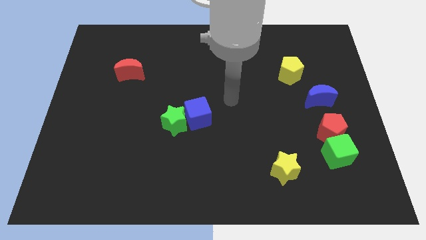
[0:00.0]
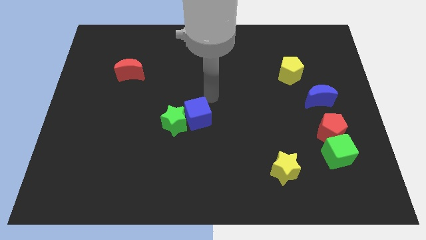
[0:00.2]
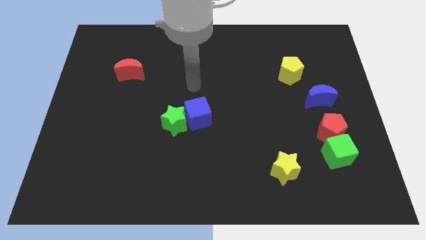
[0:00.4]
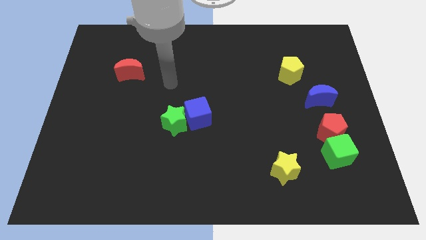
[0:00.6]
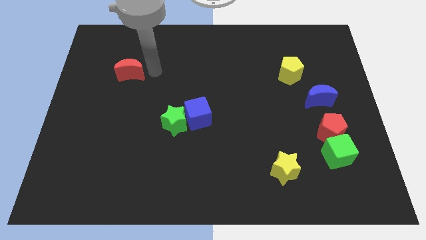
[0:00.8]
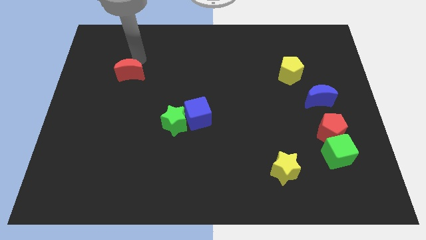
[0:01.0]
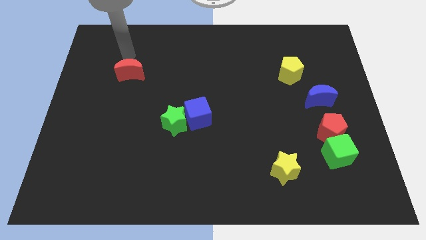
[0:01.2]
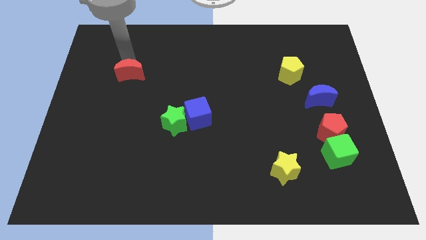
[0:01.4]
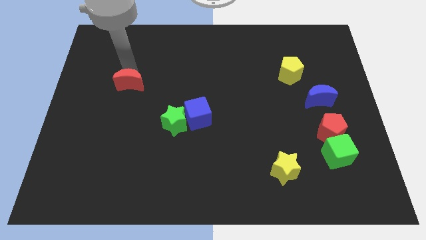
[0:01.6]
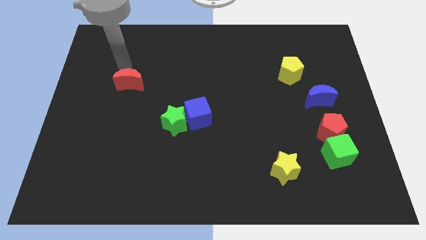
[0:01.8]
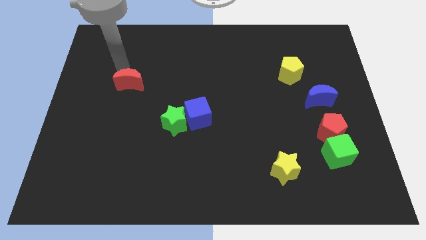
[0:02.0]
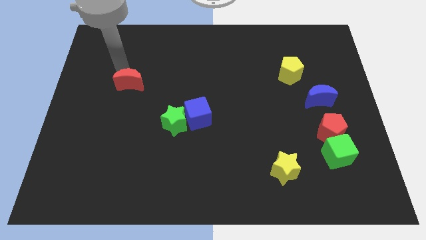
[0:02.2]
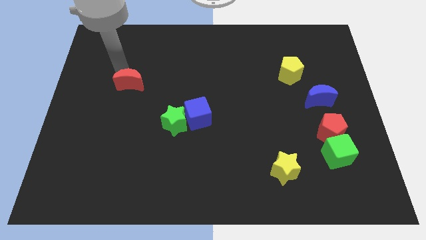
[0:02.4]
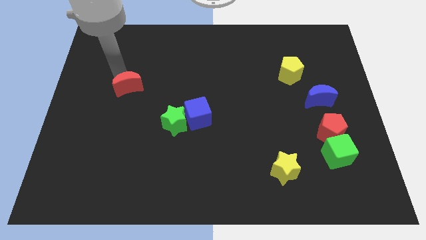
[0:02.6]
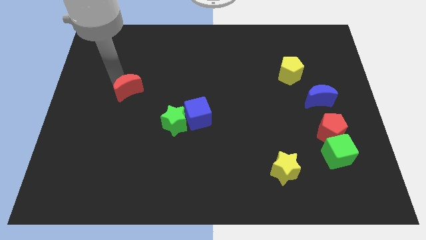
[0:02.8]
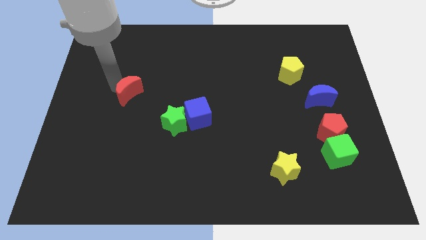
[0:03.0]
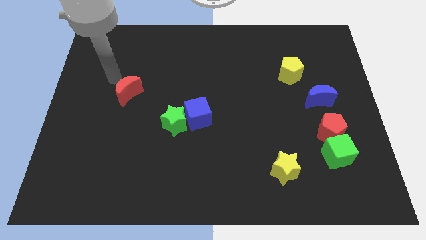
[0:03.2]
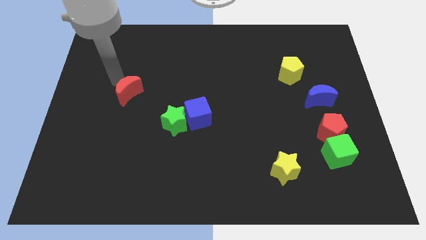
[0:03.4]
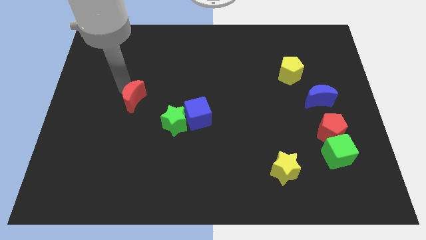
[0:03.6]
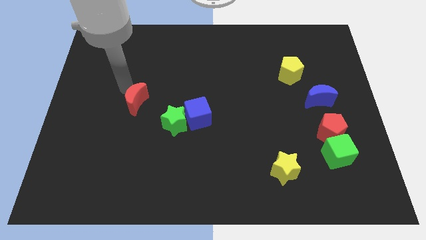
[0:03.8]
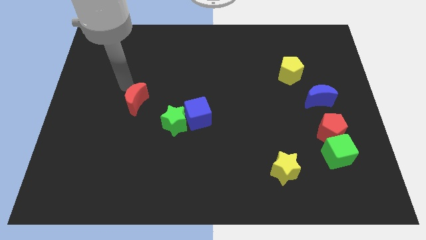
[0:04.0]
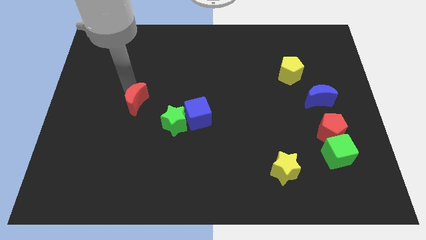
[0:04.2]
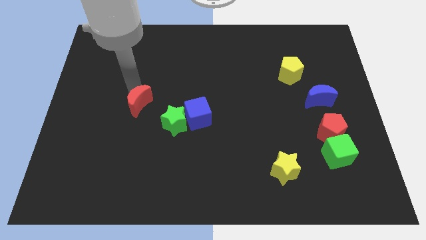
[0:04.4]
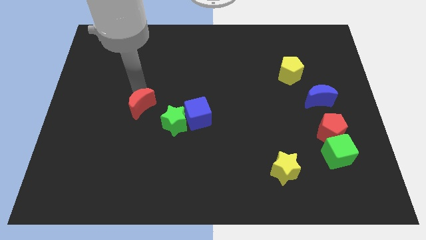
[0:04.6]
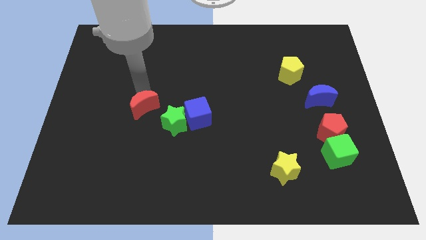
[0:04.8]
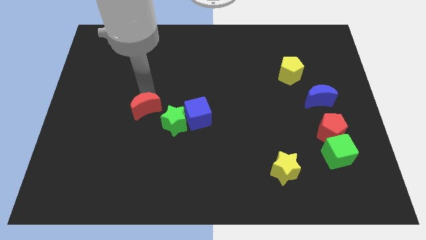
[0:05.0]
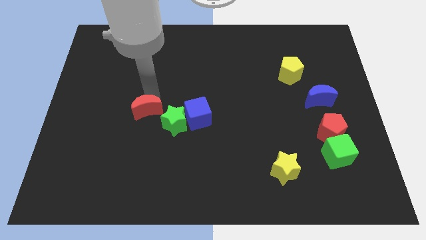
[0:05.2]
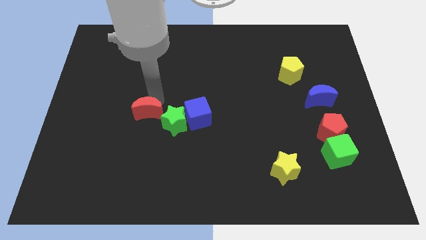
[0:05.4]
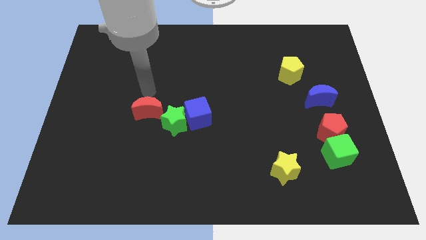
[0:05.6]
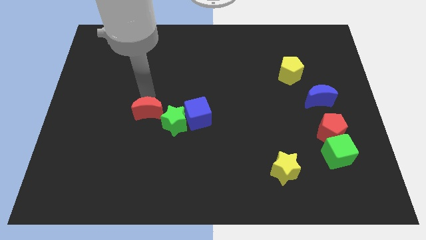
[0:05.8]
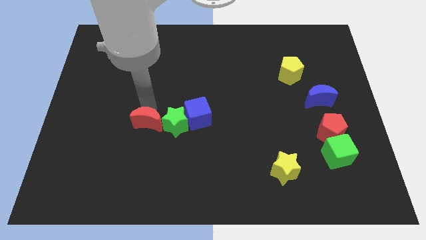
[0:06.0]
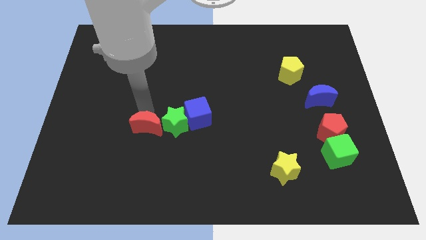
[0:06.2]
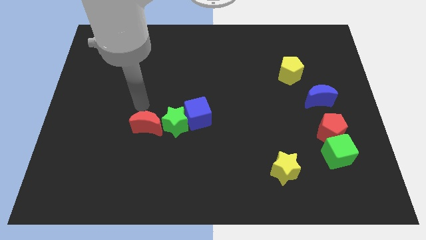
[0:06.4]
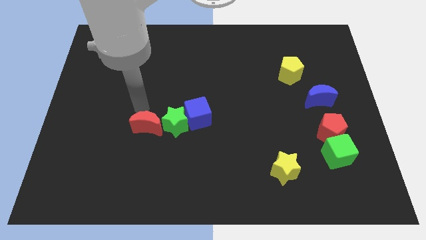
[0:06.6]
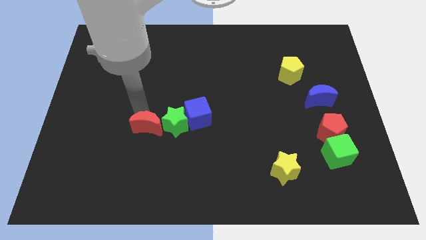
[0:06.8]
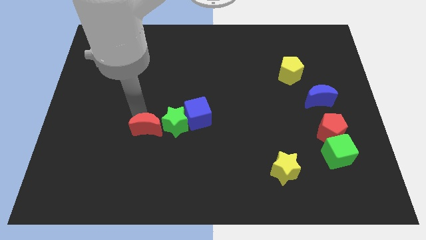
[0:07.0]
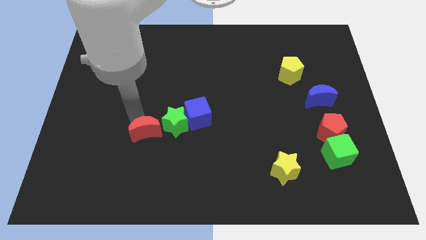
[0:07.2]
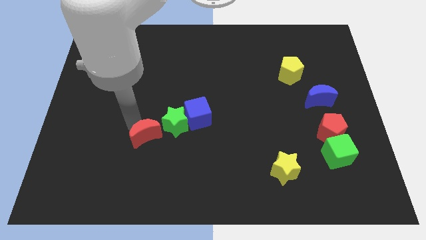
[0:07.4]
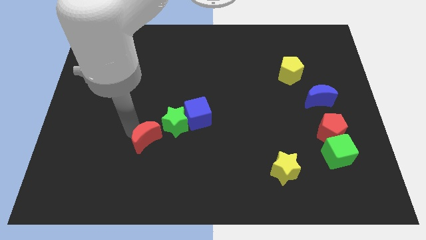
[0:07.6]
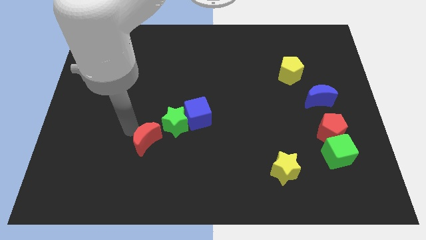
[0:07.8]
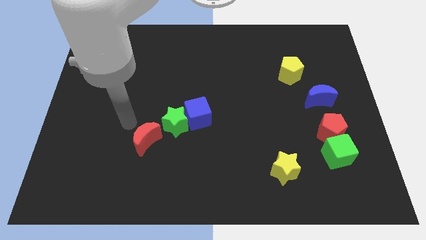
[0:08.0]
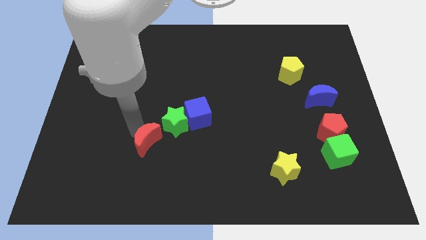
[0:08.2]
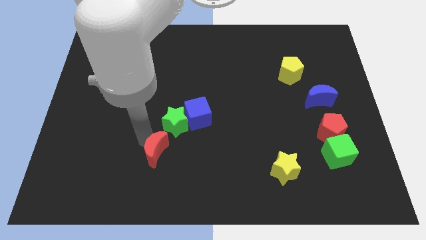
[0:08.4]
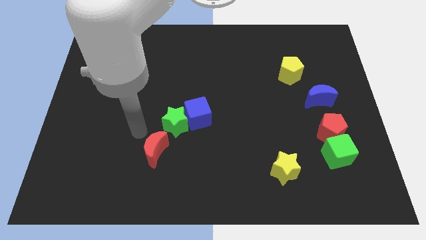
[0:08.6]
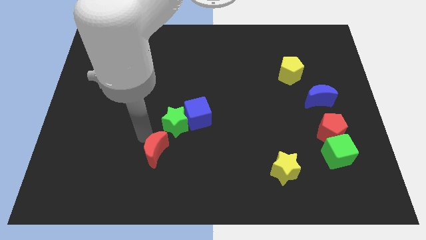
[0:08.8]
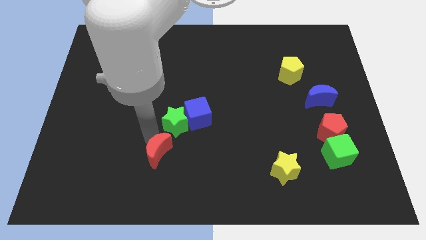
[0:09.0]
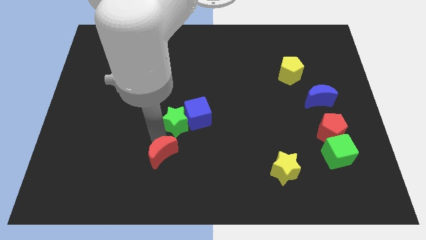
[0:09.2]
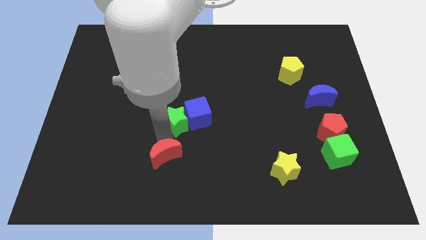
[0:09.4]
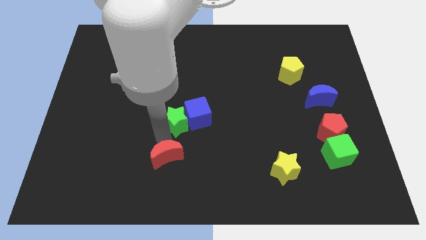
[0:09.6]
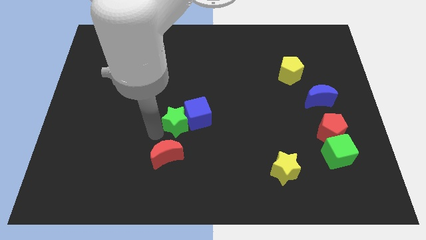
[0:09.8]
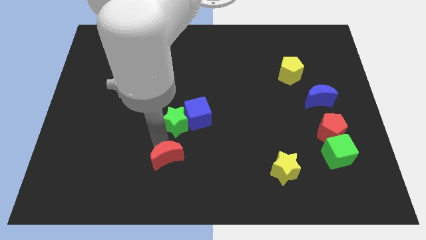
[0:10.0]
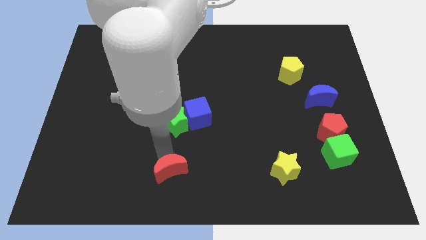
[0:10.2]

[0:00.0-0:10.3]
move the red moon to the bottom

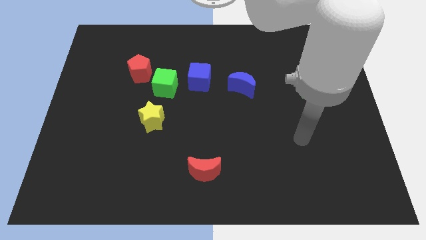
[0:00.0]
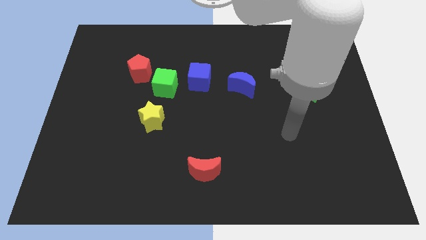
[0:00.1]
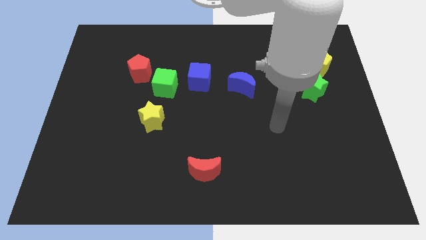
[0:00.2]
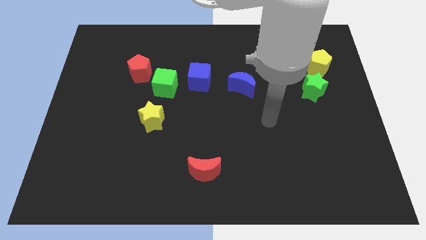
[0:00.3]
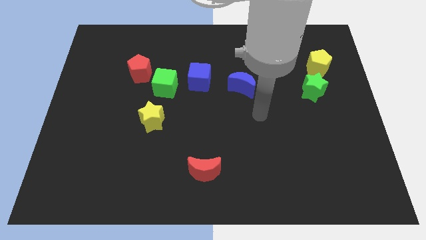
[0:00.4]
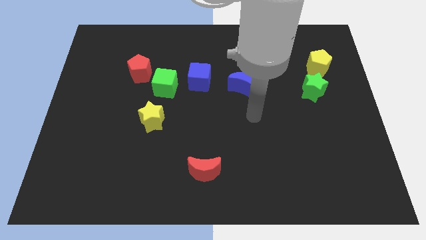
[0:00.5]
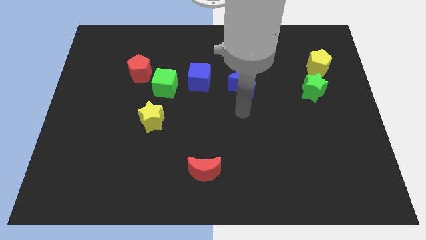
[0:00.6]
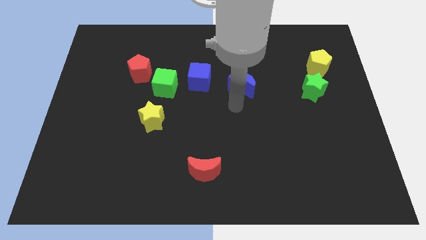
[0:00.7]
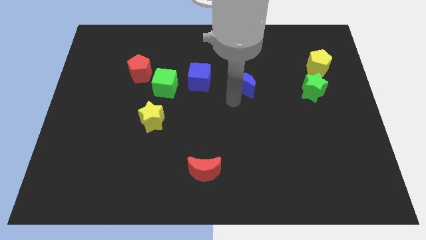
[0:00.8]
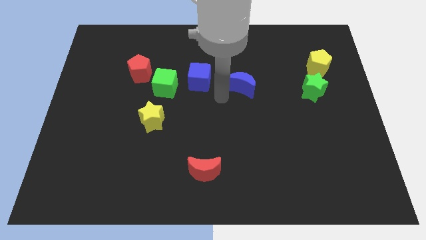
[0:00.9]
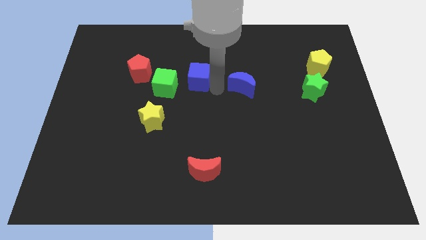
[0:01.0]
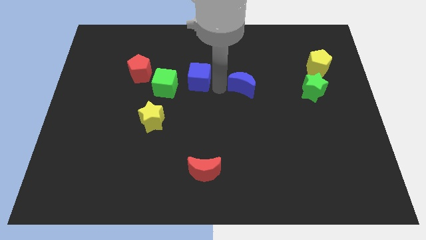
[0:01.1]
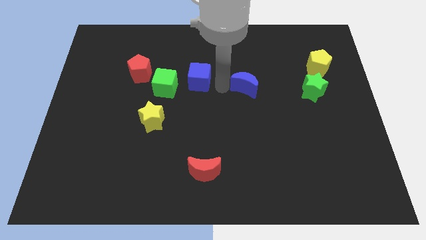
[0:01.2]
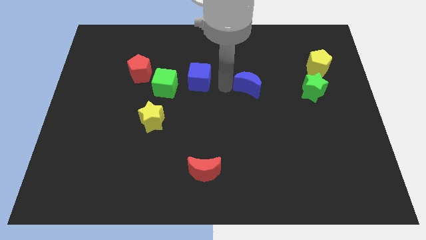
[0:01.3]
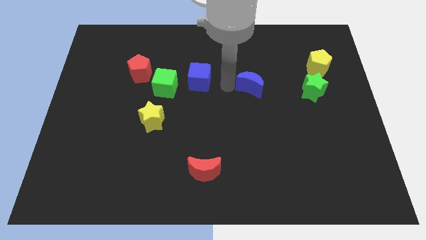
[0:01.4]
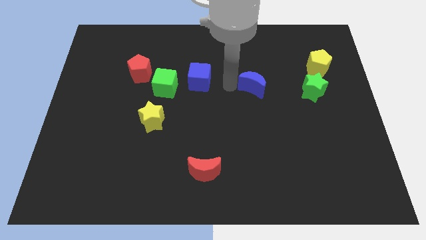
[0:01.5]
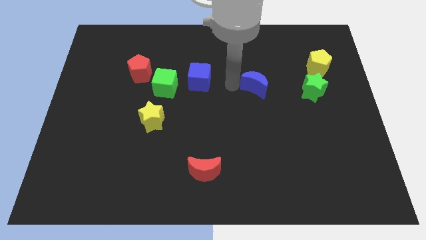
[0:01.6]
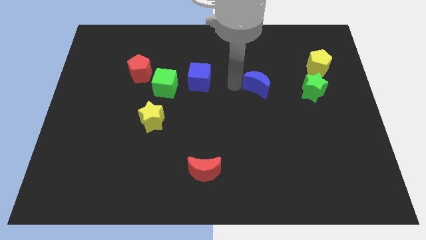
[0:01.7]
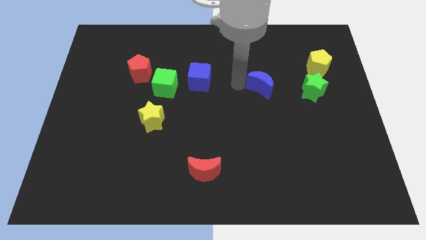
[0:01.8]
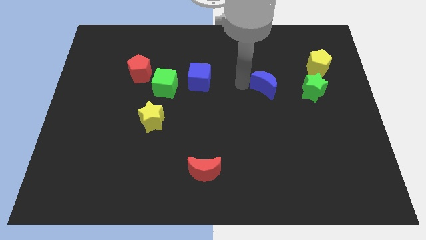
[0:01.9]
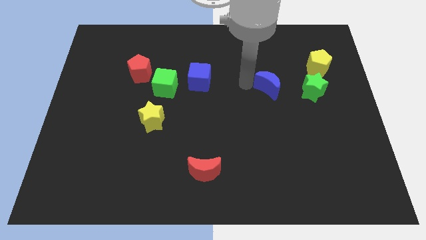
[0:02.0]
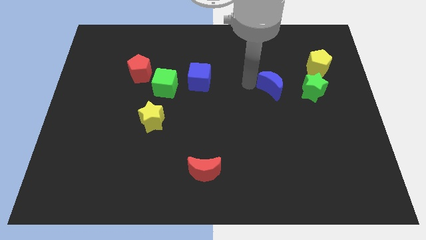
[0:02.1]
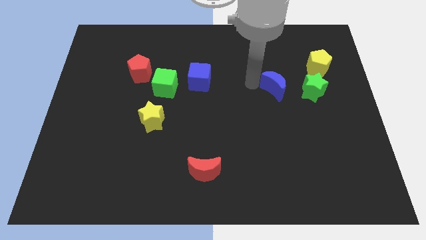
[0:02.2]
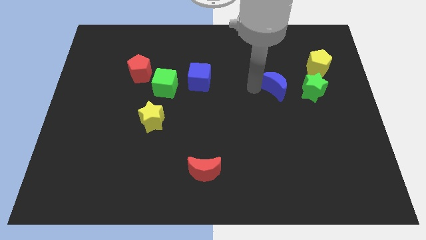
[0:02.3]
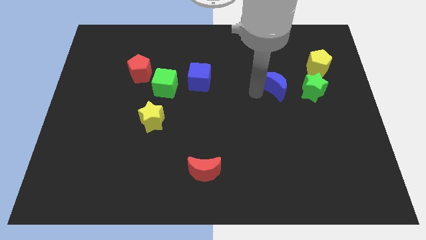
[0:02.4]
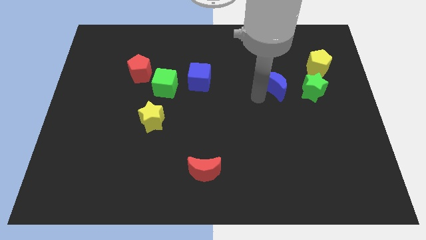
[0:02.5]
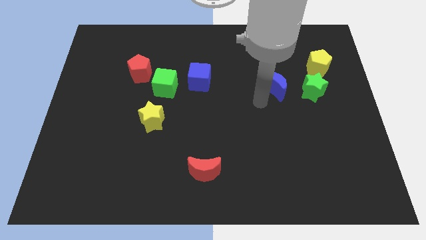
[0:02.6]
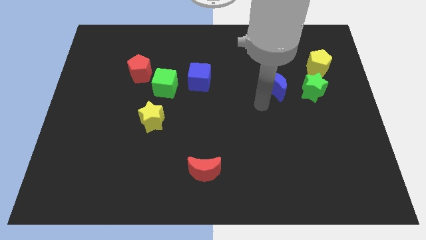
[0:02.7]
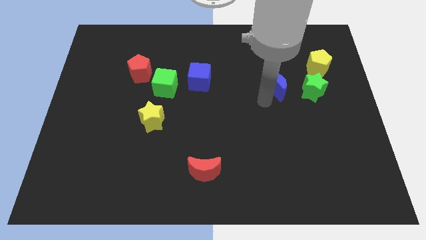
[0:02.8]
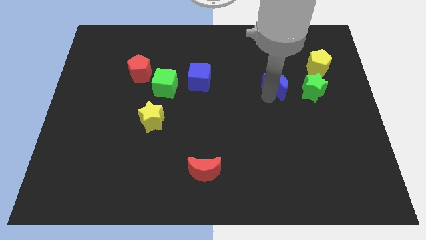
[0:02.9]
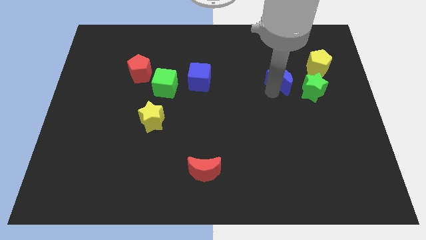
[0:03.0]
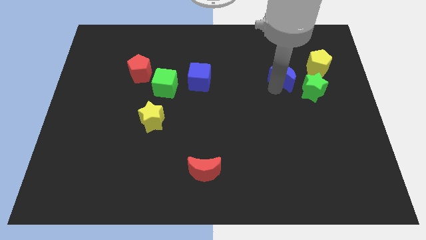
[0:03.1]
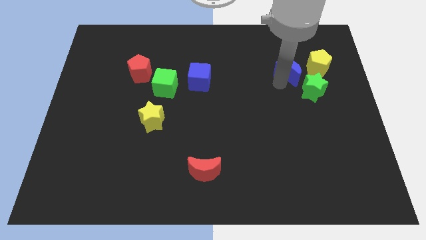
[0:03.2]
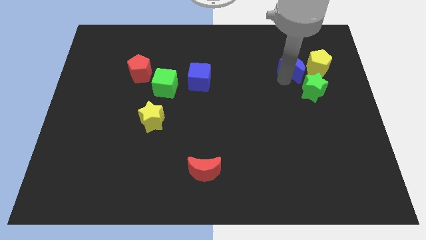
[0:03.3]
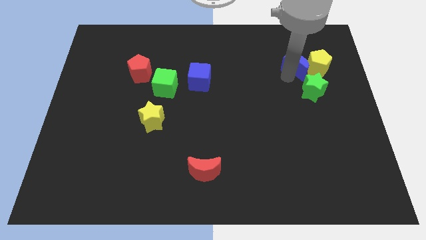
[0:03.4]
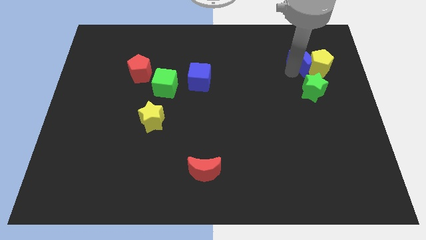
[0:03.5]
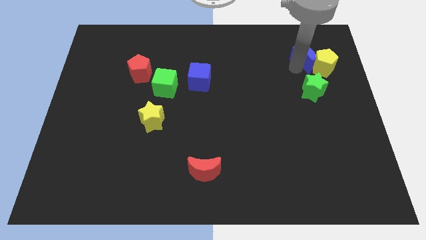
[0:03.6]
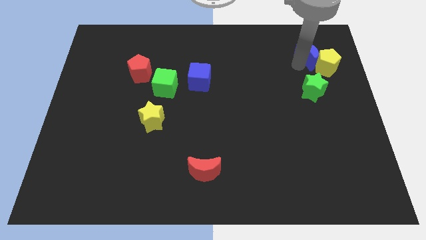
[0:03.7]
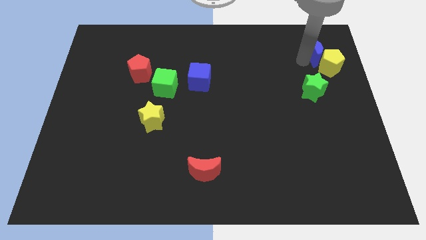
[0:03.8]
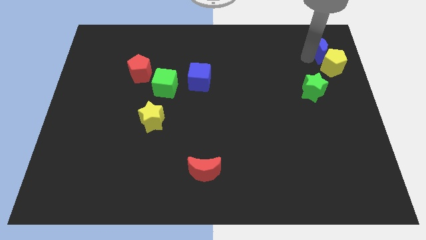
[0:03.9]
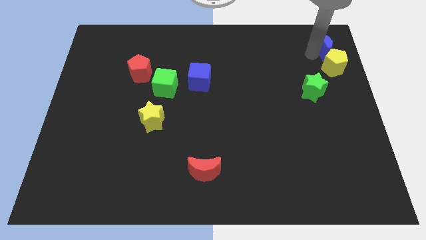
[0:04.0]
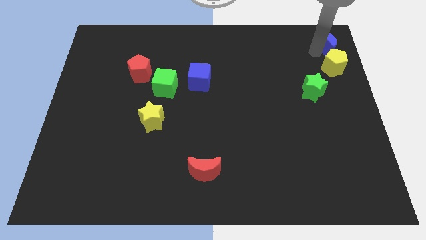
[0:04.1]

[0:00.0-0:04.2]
slide the blue moon to the top right of the board
